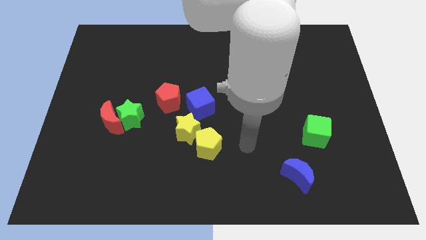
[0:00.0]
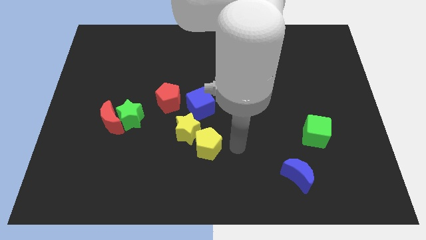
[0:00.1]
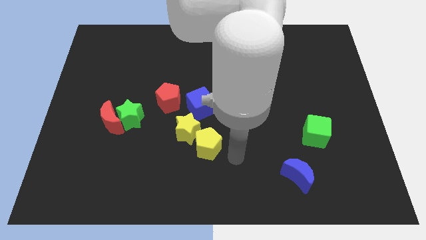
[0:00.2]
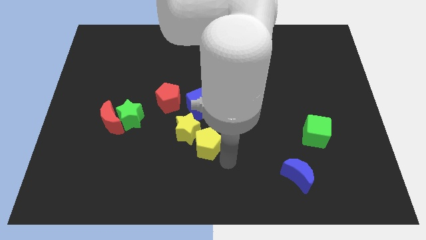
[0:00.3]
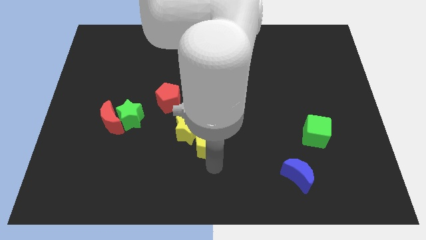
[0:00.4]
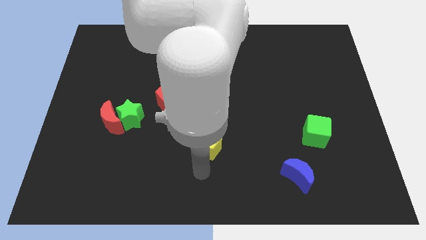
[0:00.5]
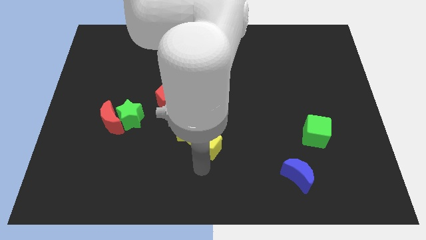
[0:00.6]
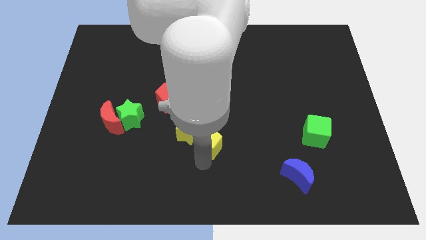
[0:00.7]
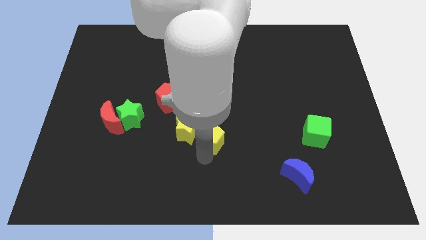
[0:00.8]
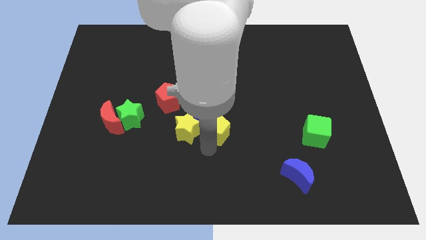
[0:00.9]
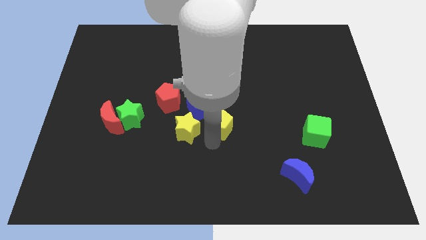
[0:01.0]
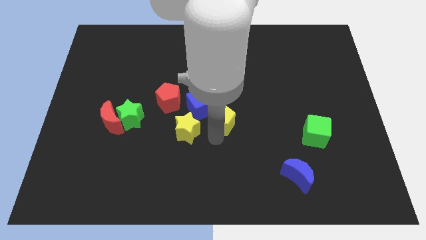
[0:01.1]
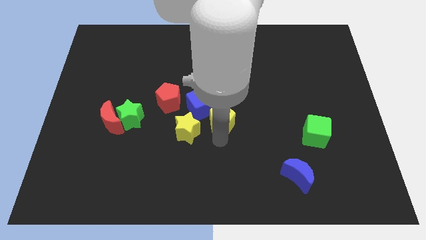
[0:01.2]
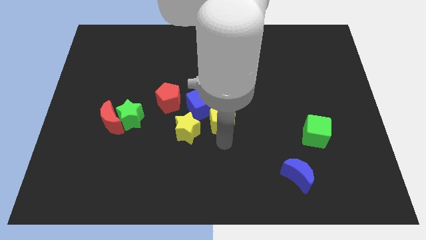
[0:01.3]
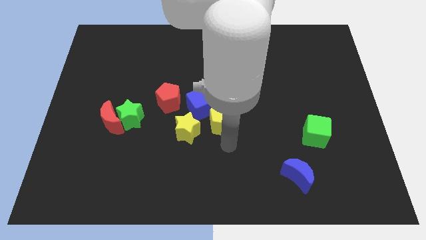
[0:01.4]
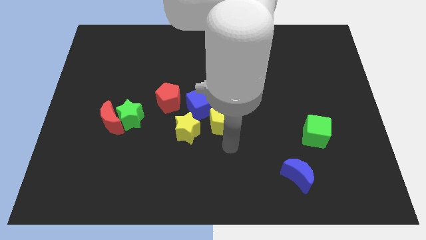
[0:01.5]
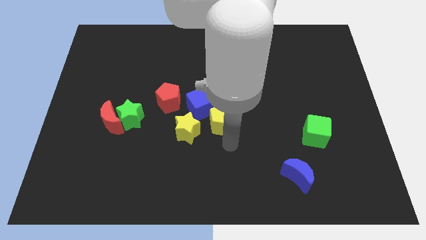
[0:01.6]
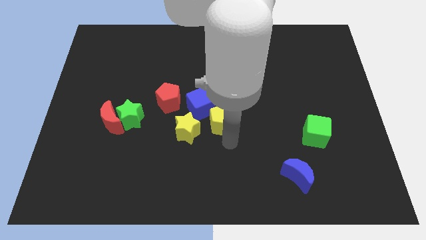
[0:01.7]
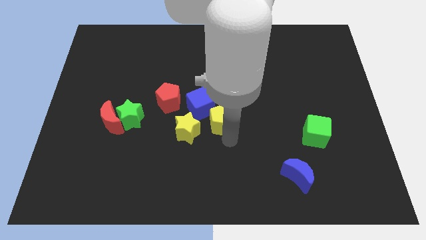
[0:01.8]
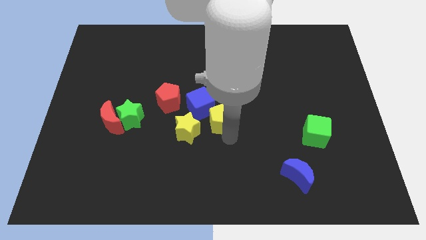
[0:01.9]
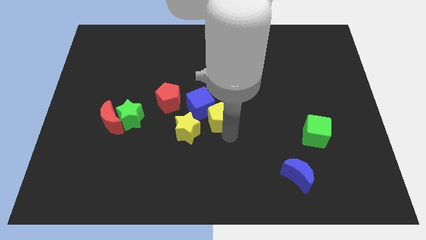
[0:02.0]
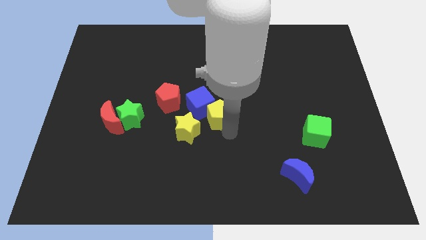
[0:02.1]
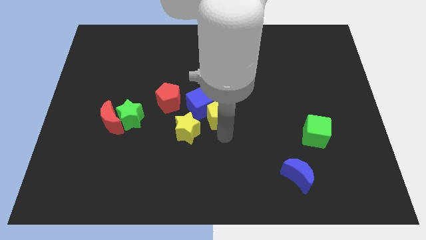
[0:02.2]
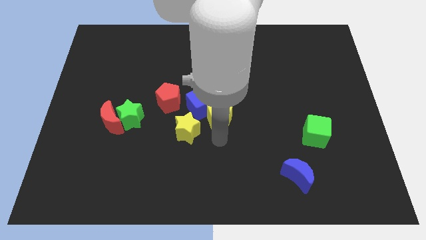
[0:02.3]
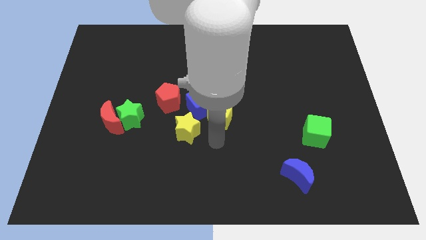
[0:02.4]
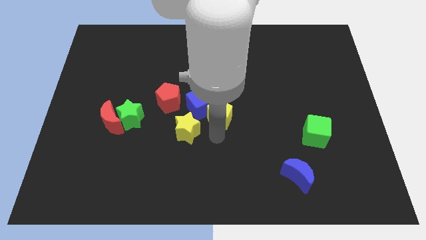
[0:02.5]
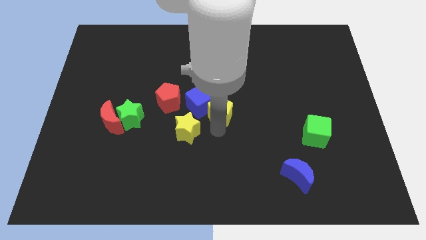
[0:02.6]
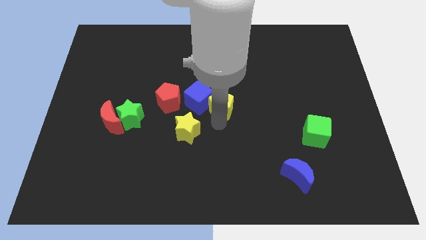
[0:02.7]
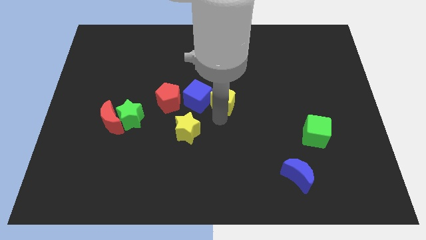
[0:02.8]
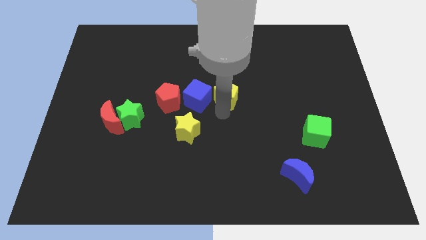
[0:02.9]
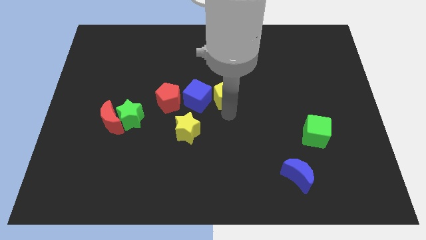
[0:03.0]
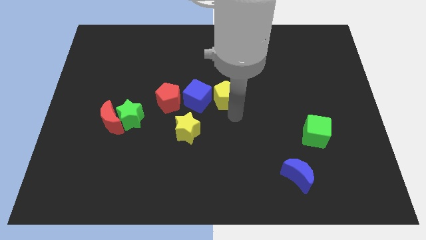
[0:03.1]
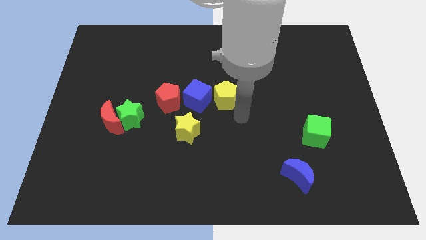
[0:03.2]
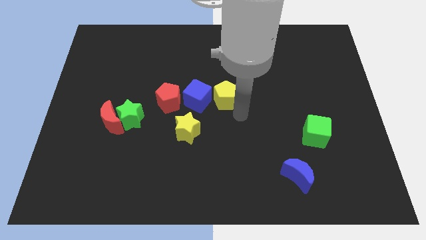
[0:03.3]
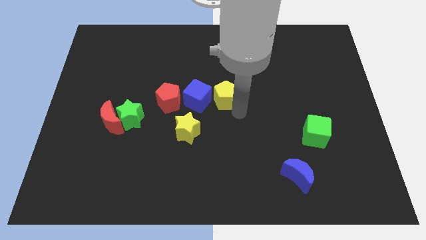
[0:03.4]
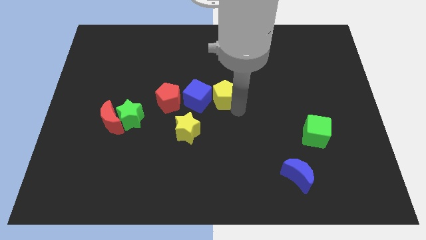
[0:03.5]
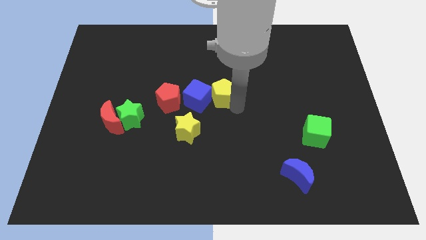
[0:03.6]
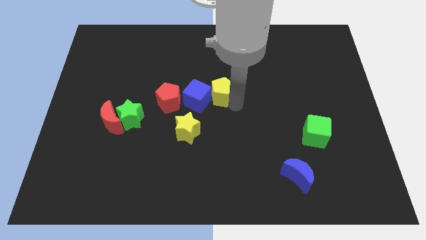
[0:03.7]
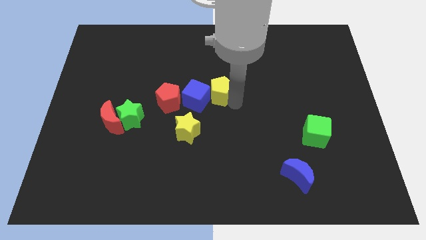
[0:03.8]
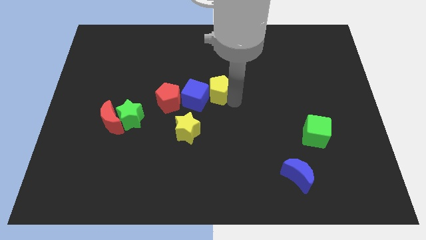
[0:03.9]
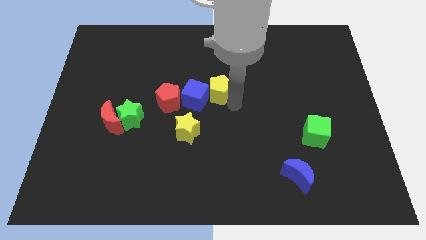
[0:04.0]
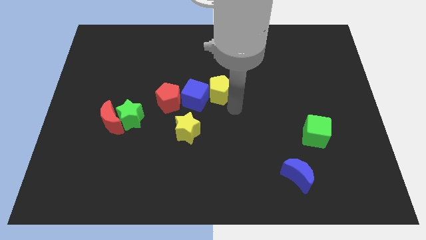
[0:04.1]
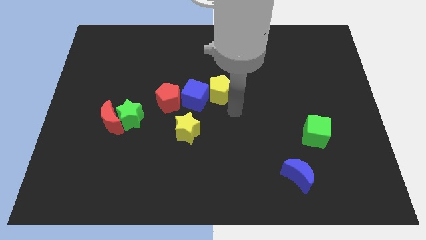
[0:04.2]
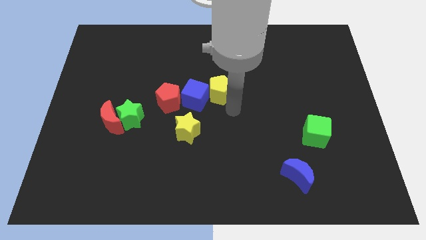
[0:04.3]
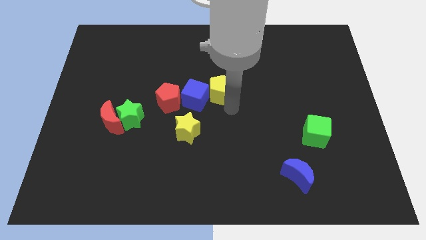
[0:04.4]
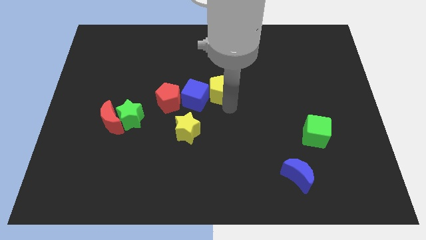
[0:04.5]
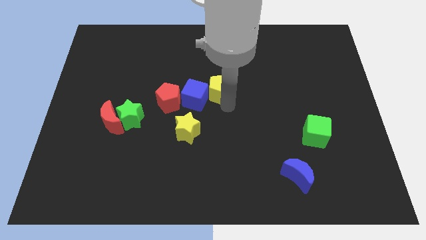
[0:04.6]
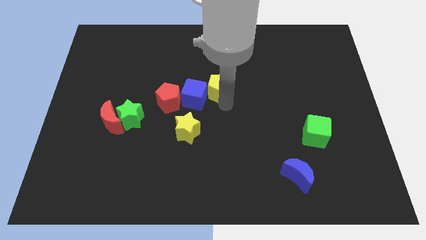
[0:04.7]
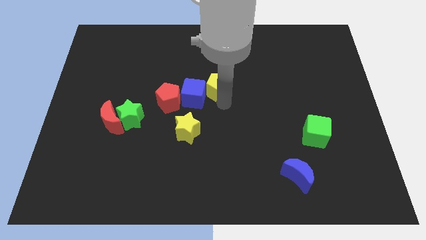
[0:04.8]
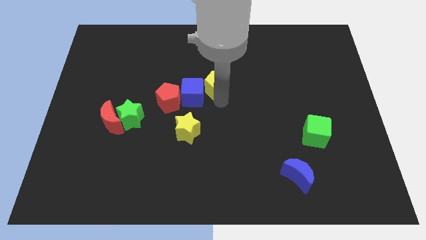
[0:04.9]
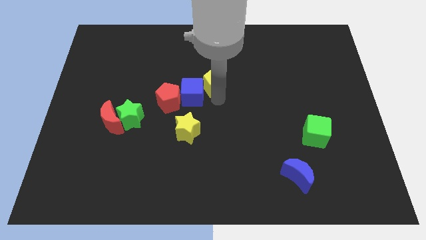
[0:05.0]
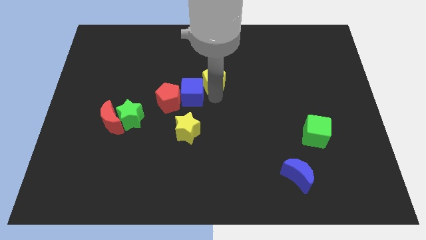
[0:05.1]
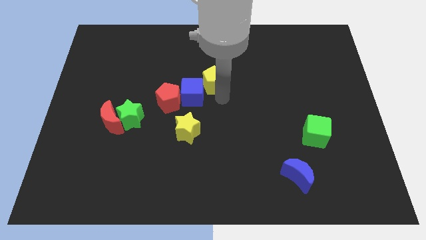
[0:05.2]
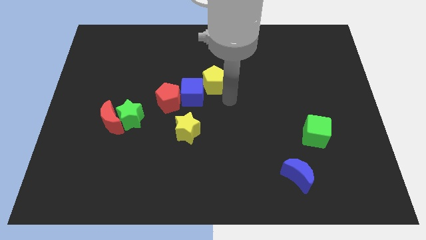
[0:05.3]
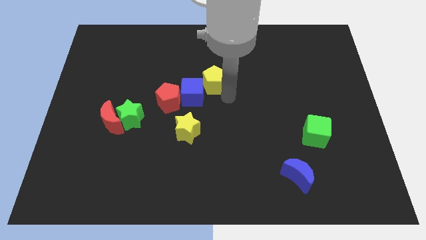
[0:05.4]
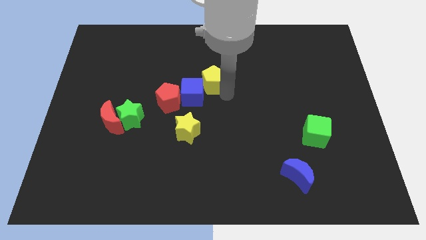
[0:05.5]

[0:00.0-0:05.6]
slide the yellow pentagon to the top side of the blue cube

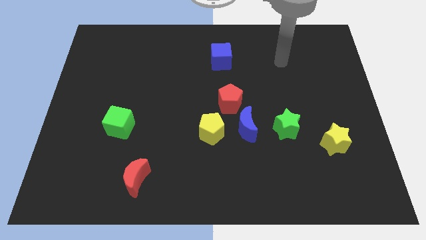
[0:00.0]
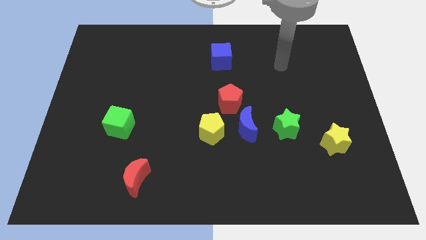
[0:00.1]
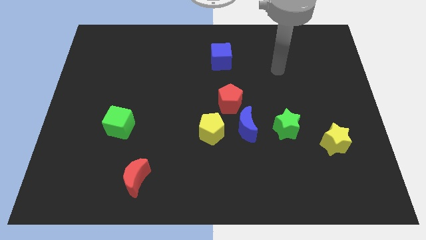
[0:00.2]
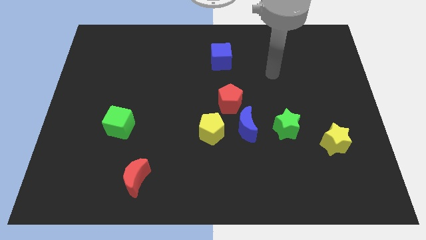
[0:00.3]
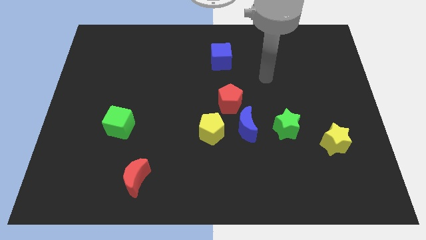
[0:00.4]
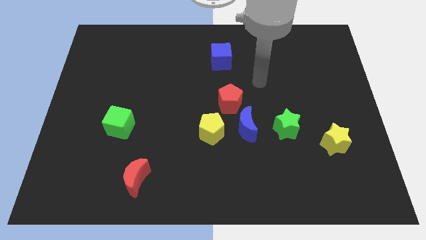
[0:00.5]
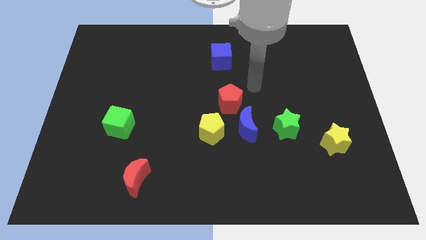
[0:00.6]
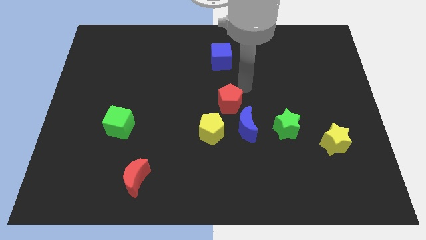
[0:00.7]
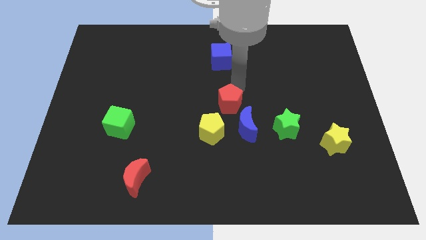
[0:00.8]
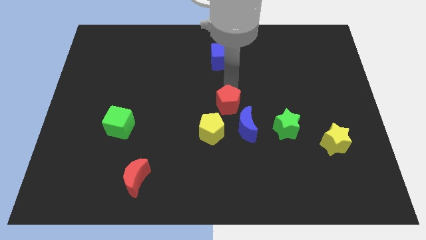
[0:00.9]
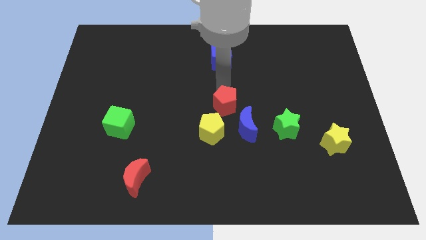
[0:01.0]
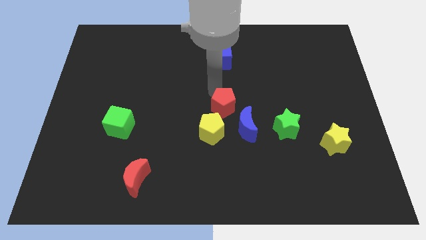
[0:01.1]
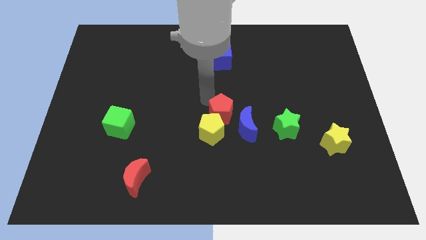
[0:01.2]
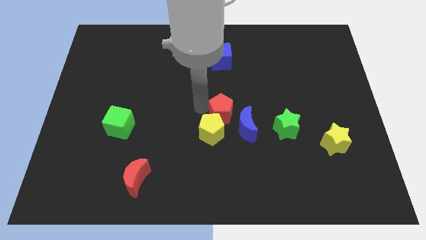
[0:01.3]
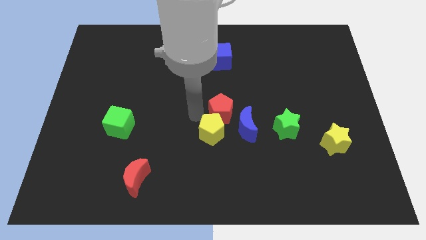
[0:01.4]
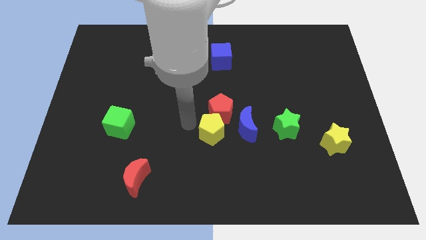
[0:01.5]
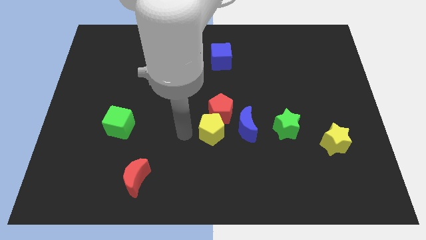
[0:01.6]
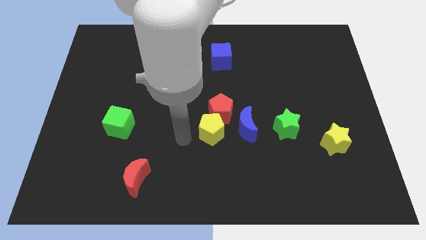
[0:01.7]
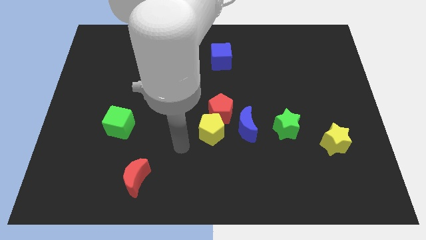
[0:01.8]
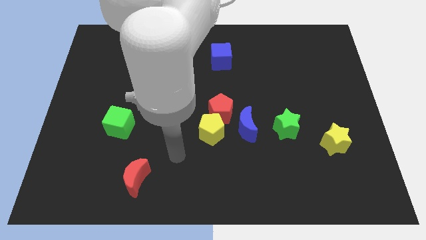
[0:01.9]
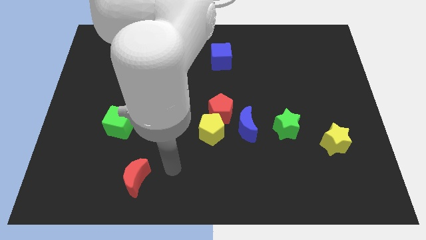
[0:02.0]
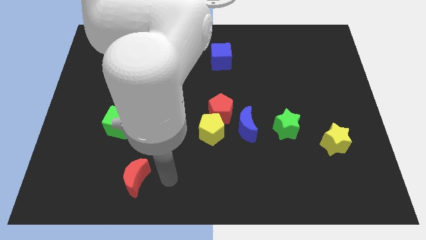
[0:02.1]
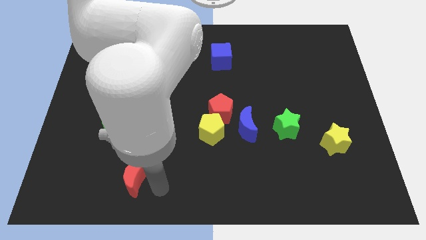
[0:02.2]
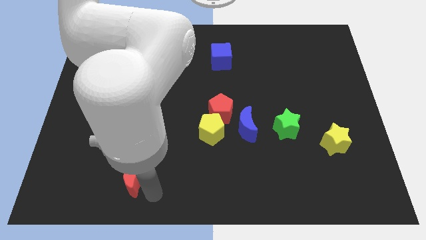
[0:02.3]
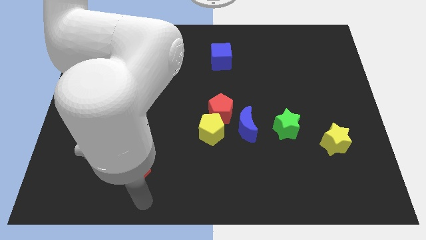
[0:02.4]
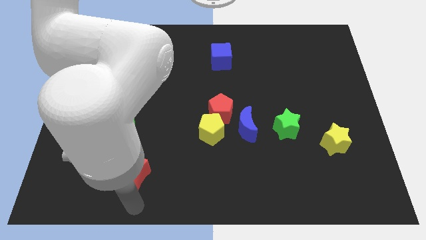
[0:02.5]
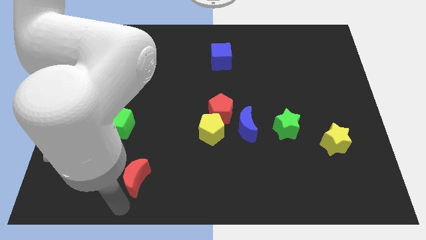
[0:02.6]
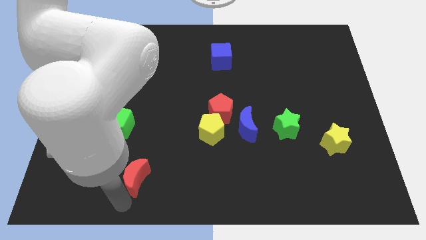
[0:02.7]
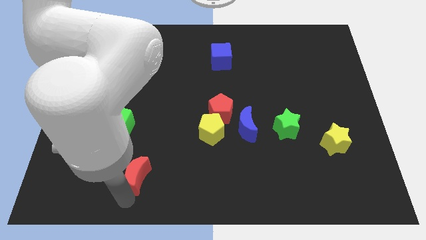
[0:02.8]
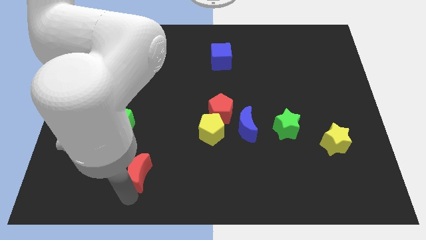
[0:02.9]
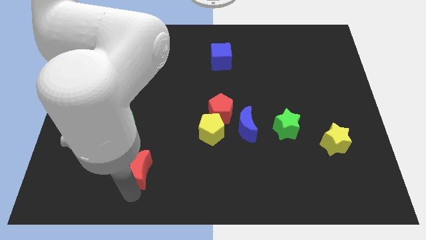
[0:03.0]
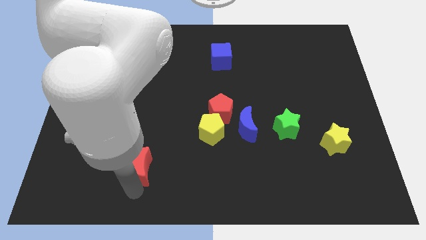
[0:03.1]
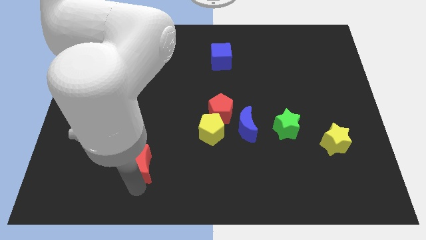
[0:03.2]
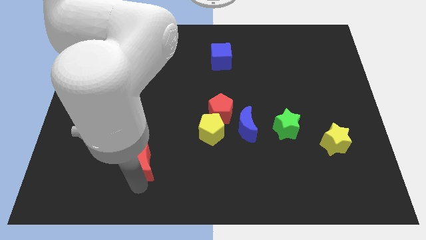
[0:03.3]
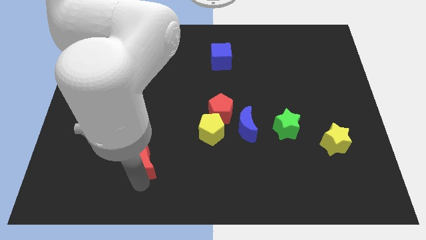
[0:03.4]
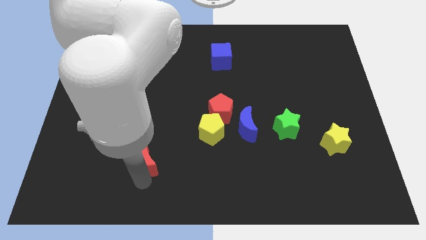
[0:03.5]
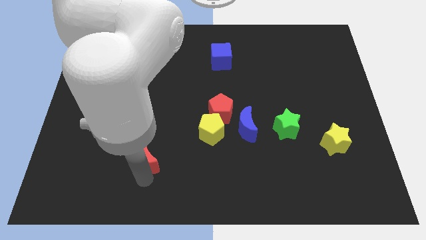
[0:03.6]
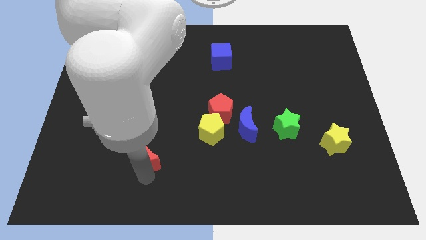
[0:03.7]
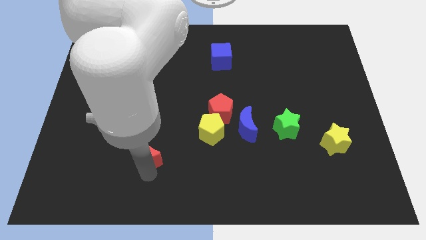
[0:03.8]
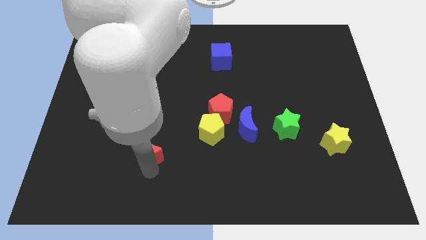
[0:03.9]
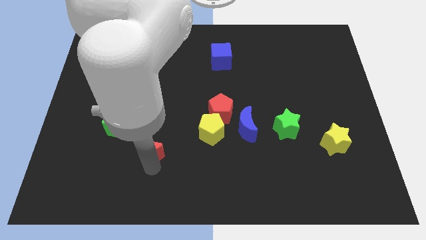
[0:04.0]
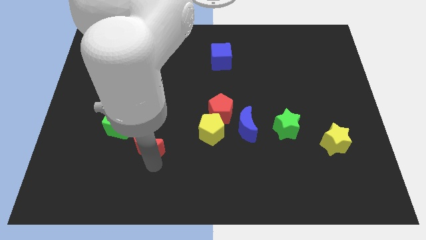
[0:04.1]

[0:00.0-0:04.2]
put the red moon left of the yellow pentagon
